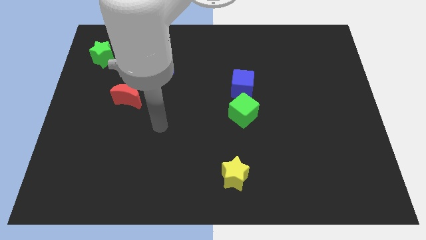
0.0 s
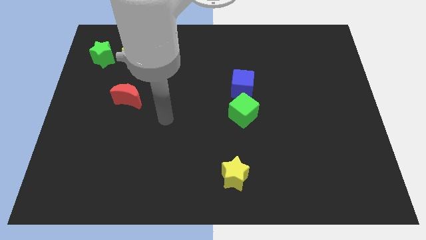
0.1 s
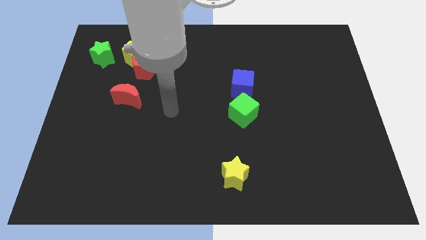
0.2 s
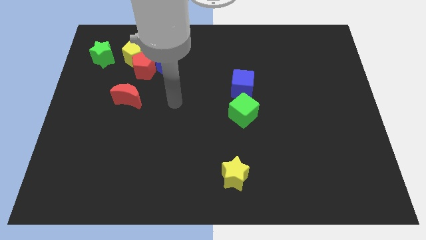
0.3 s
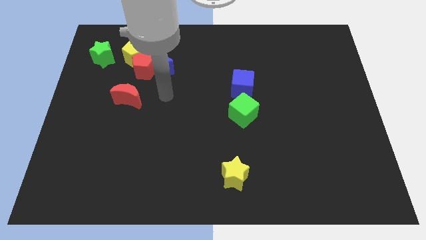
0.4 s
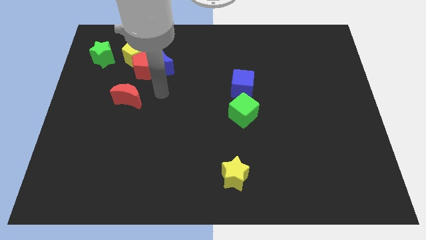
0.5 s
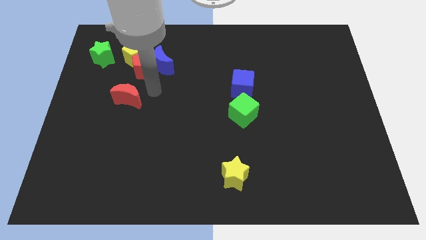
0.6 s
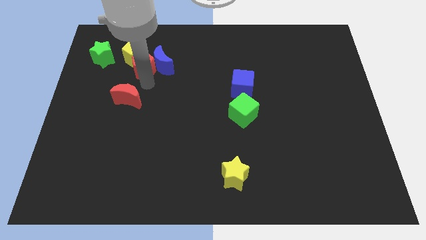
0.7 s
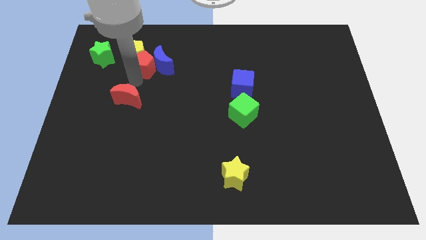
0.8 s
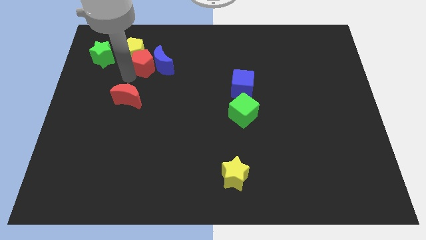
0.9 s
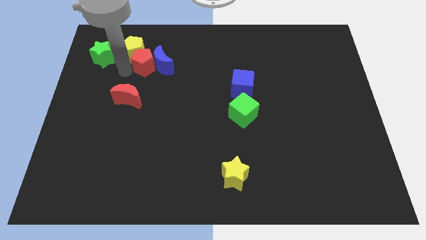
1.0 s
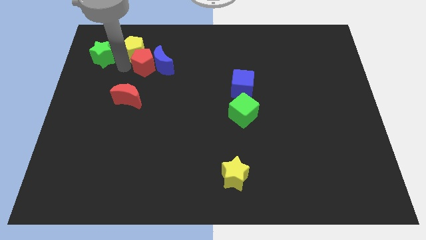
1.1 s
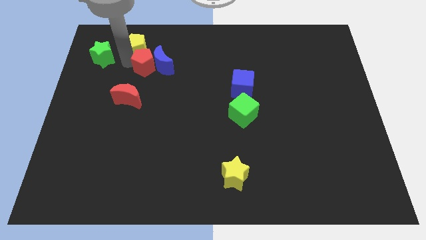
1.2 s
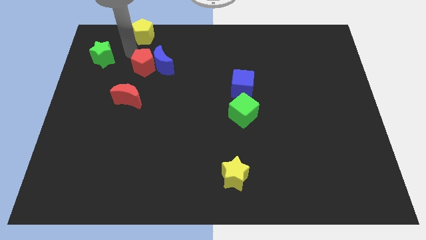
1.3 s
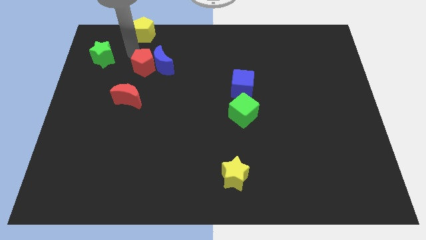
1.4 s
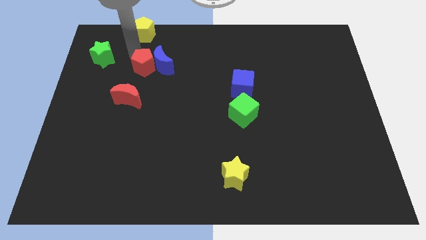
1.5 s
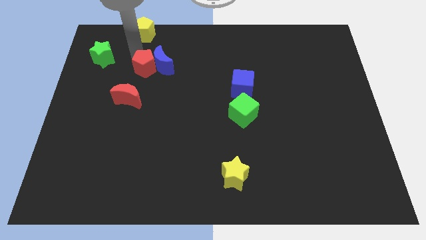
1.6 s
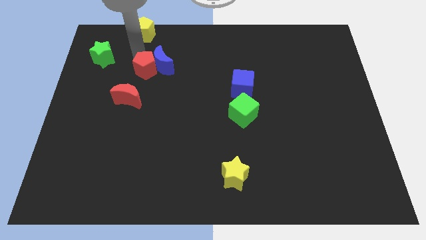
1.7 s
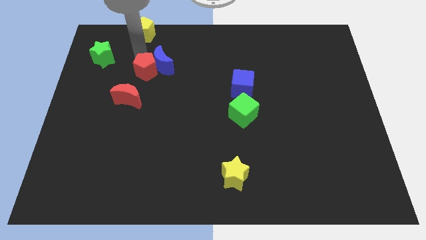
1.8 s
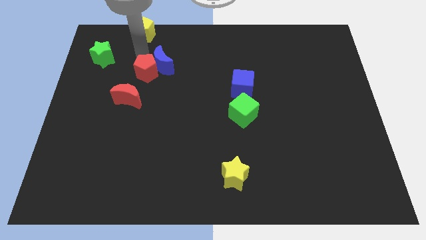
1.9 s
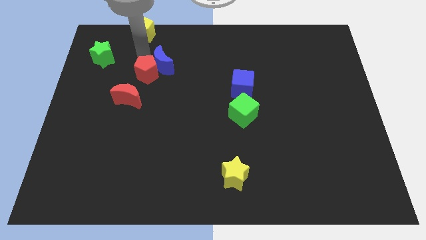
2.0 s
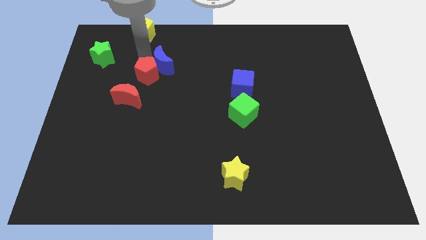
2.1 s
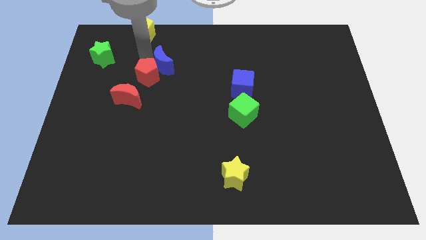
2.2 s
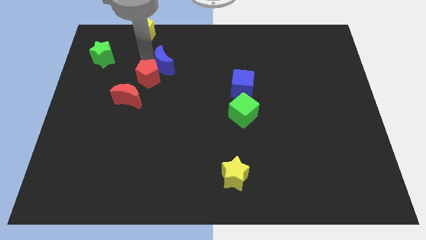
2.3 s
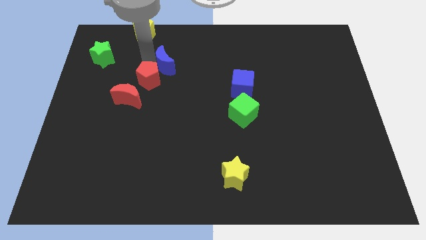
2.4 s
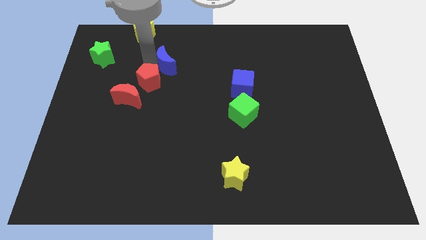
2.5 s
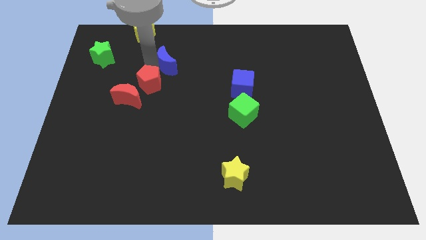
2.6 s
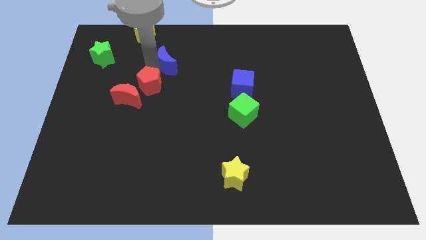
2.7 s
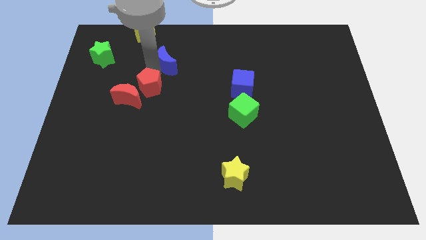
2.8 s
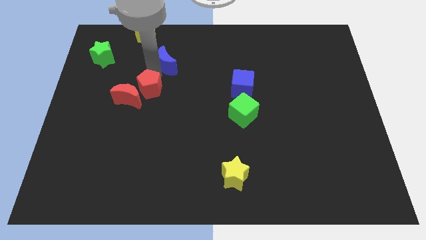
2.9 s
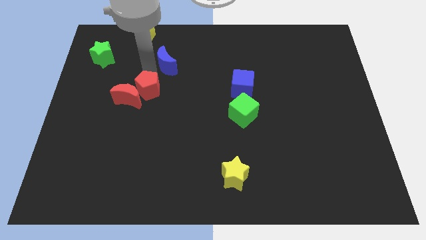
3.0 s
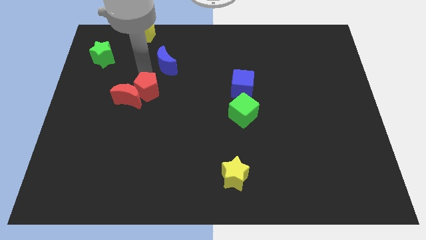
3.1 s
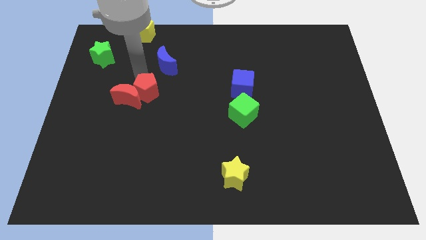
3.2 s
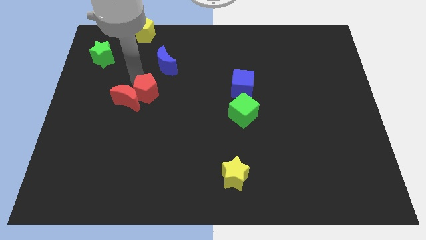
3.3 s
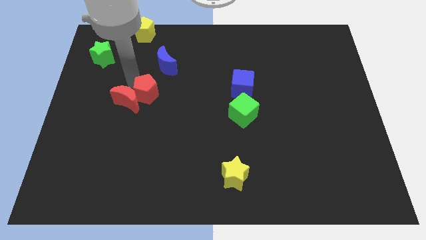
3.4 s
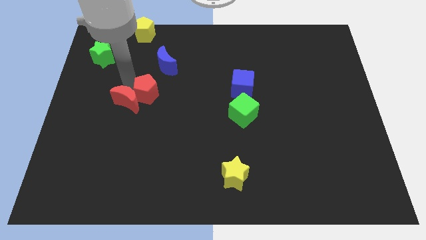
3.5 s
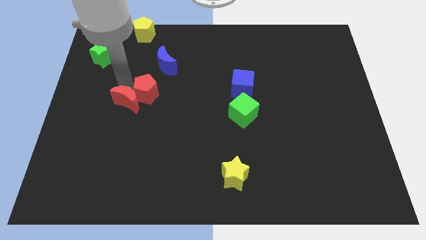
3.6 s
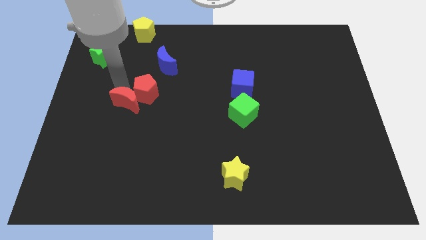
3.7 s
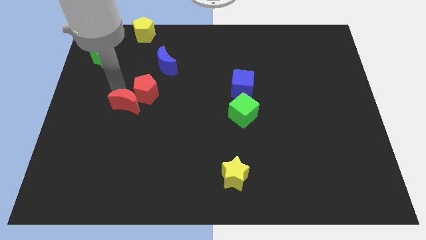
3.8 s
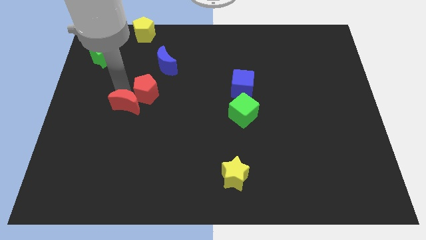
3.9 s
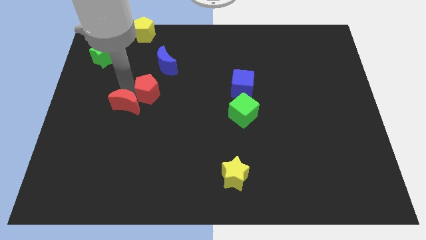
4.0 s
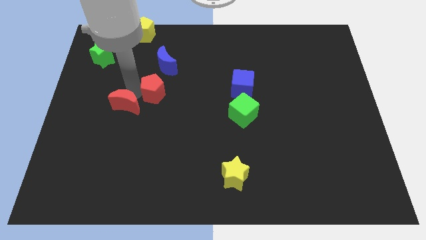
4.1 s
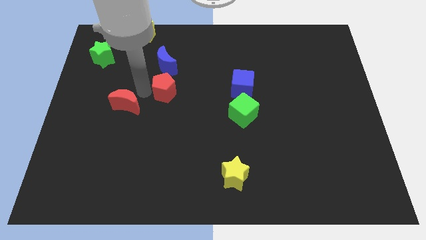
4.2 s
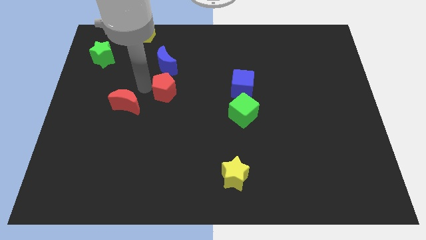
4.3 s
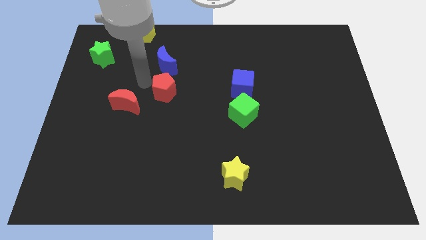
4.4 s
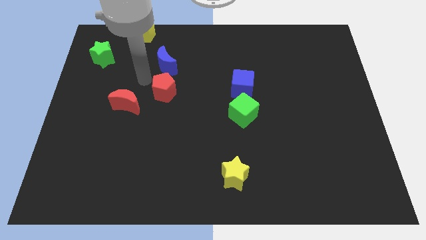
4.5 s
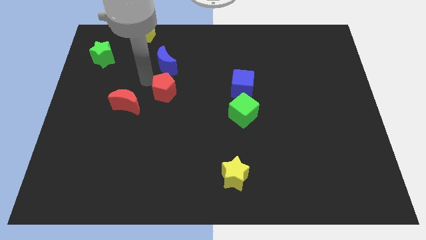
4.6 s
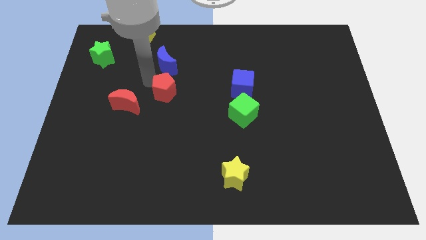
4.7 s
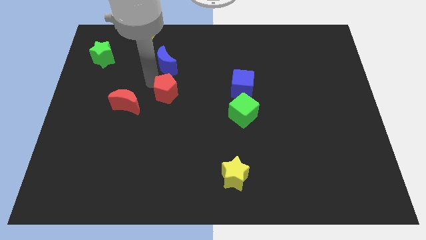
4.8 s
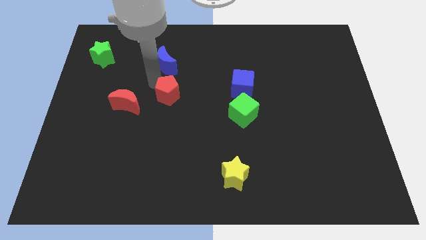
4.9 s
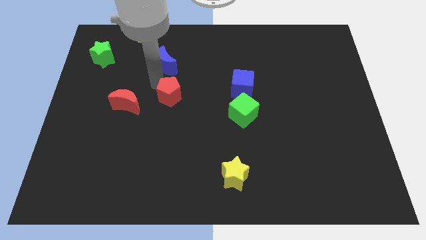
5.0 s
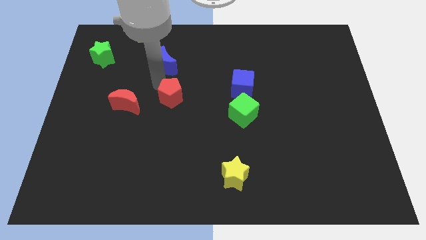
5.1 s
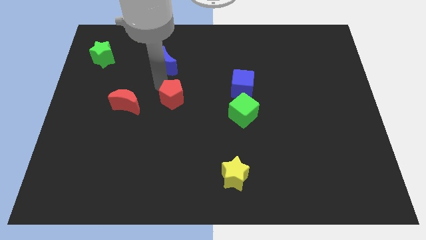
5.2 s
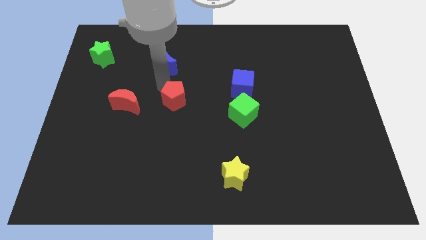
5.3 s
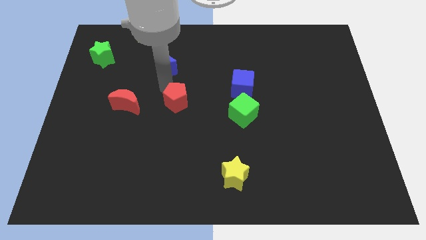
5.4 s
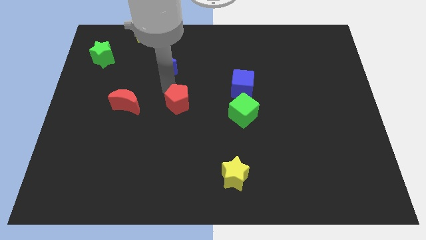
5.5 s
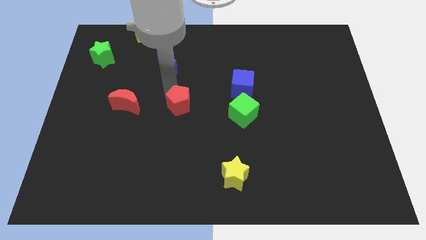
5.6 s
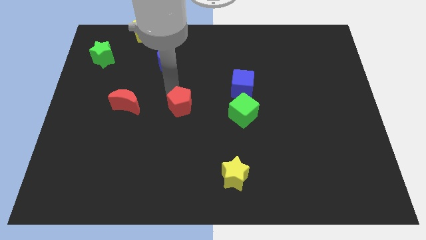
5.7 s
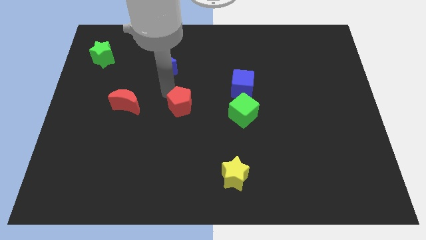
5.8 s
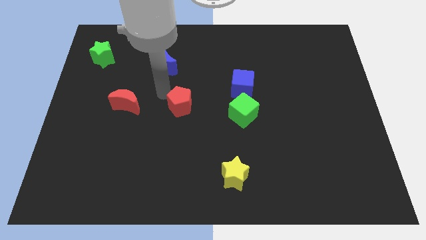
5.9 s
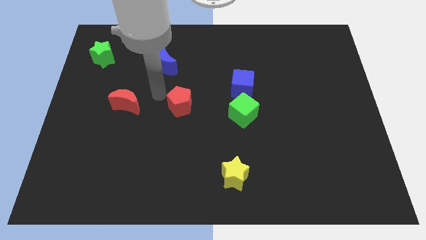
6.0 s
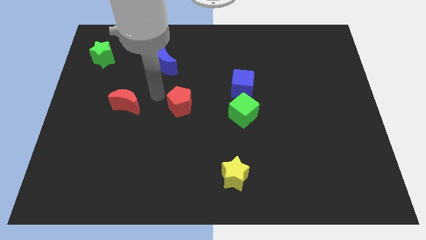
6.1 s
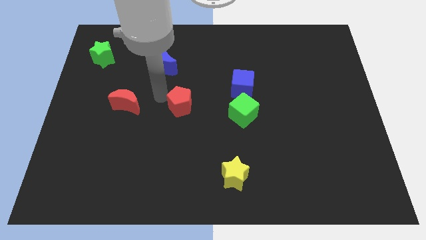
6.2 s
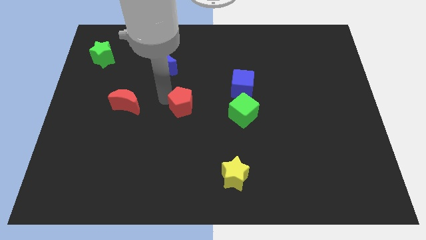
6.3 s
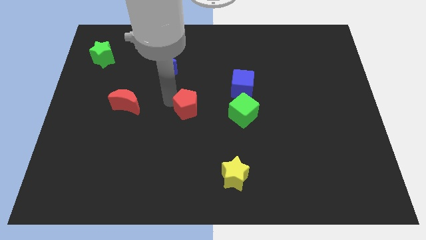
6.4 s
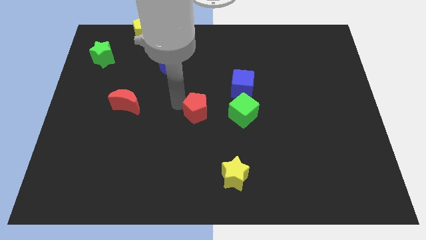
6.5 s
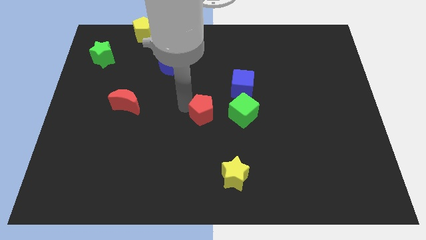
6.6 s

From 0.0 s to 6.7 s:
slide the red pentagon diagonally down and to the right

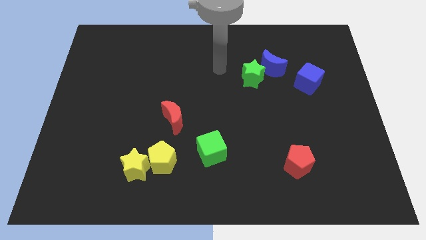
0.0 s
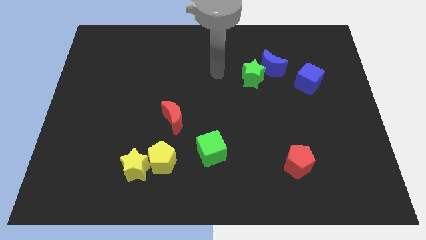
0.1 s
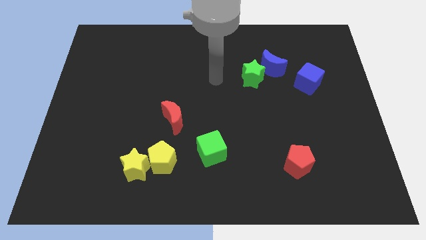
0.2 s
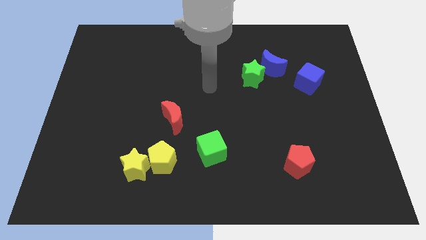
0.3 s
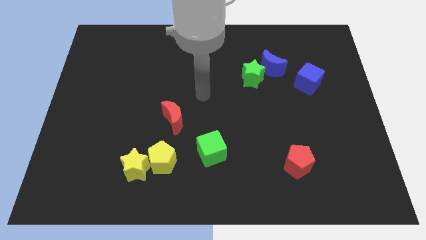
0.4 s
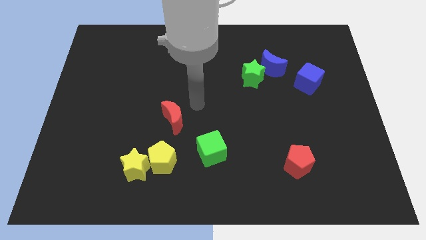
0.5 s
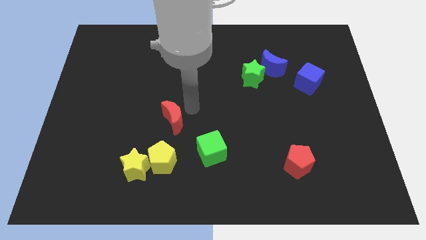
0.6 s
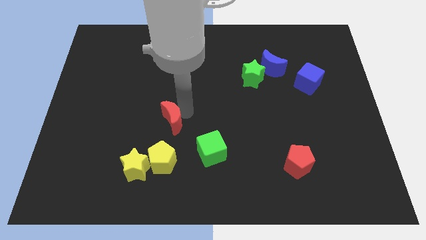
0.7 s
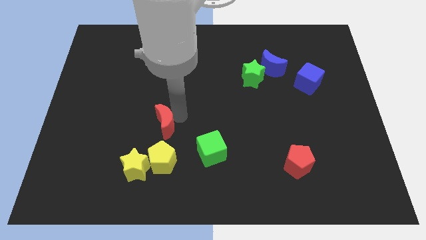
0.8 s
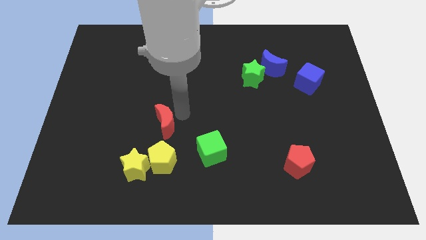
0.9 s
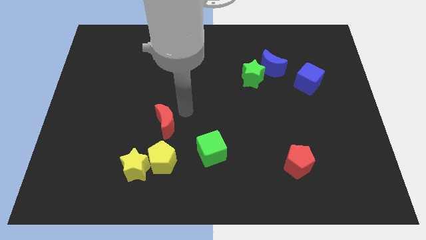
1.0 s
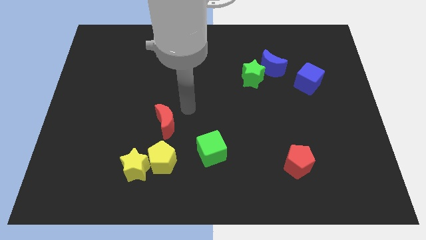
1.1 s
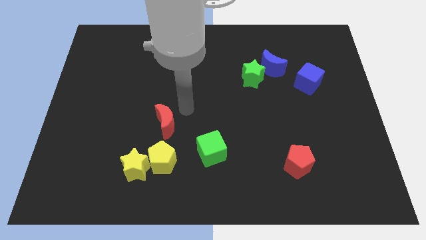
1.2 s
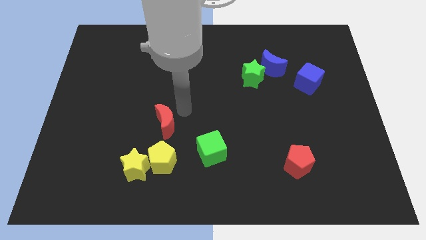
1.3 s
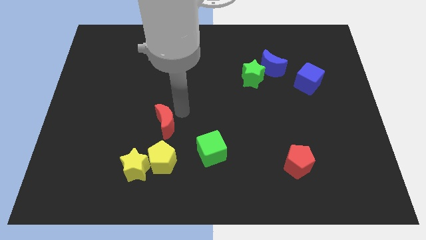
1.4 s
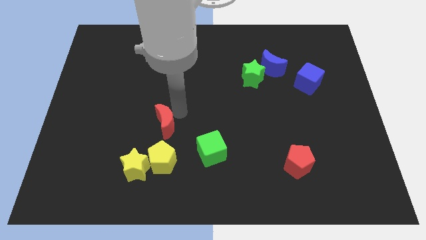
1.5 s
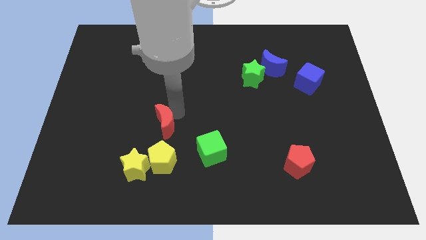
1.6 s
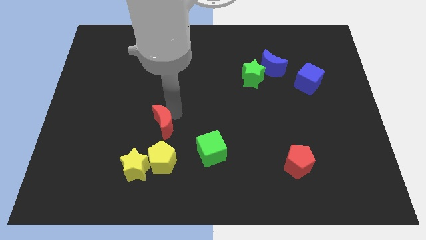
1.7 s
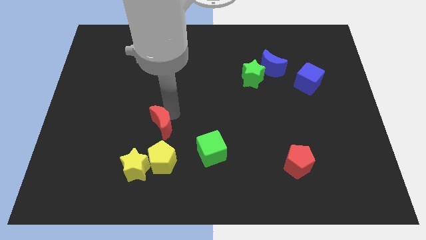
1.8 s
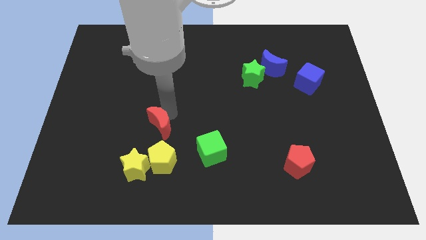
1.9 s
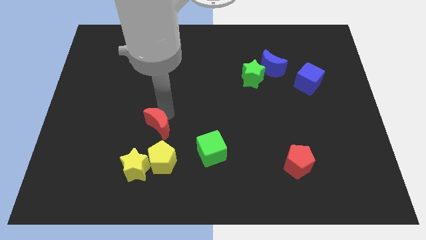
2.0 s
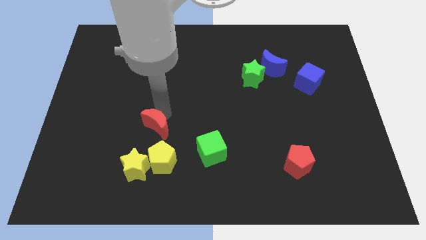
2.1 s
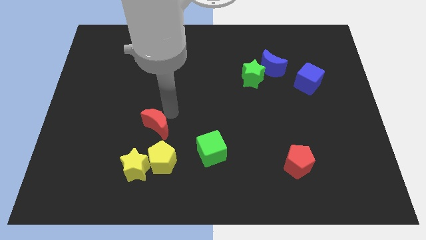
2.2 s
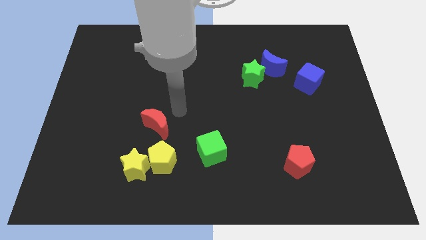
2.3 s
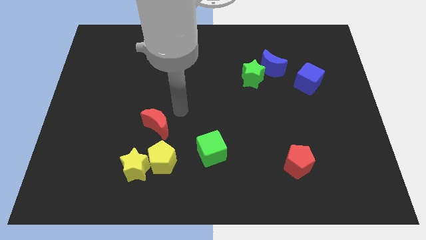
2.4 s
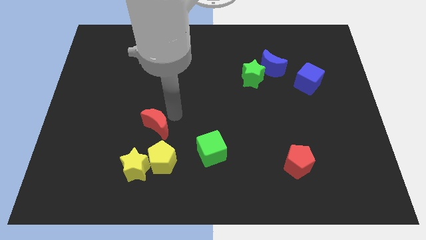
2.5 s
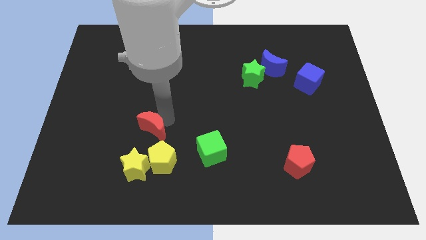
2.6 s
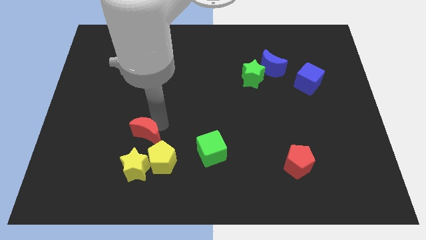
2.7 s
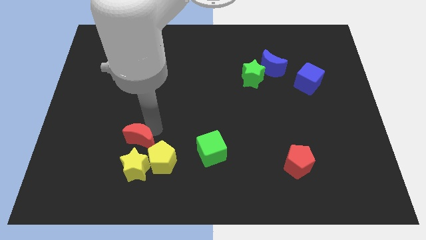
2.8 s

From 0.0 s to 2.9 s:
slightly move the red moon downwards and then to the left
